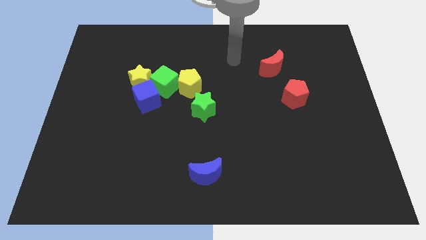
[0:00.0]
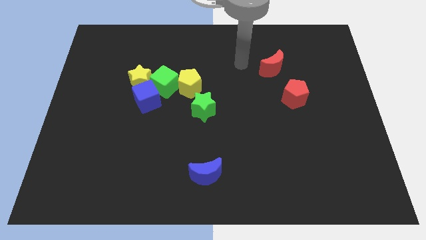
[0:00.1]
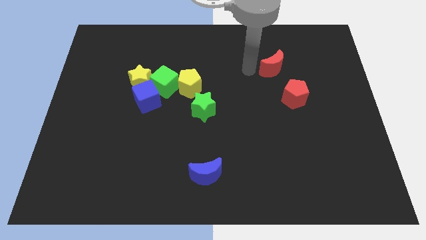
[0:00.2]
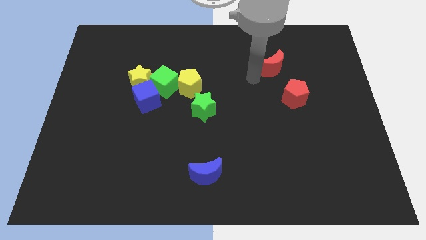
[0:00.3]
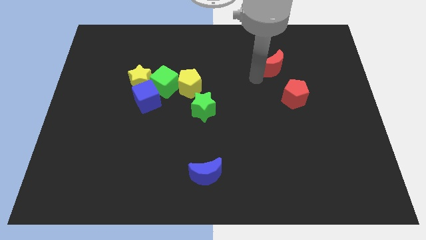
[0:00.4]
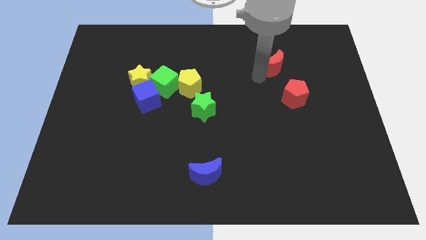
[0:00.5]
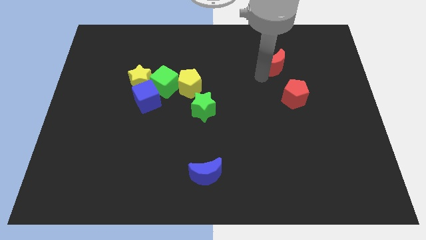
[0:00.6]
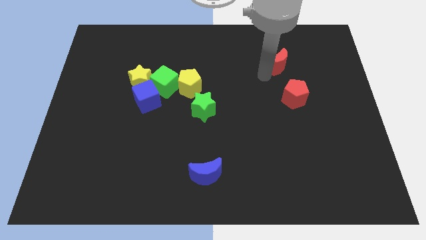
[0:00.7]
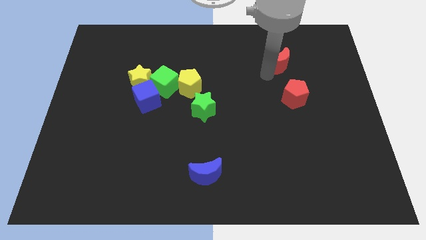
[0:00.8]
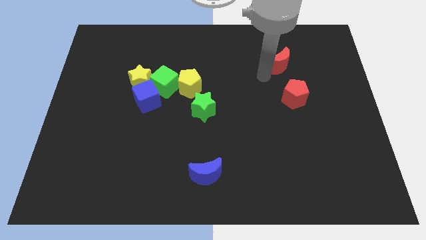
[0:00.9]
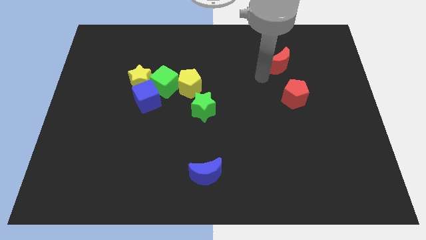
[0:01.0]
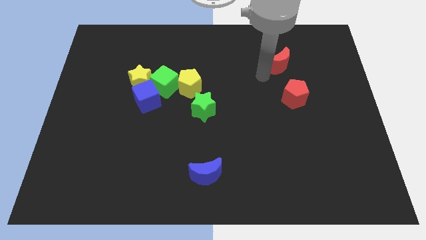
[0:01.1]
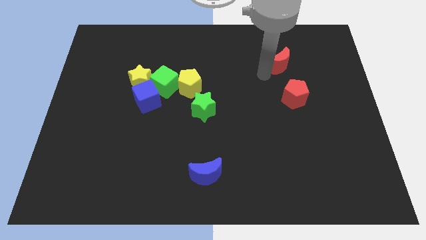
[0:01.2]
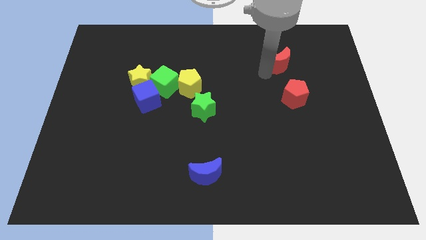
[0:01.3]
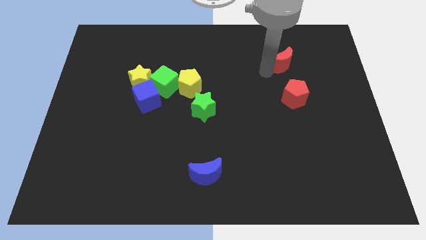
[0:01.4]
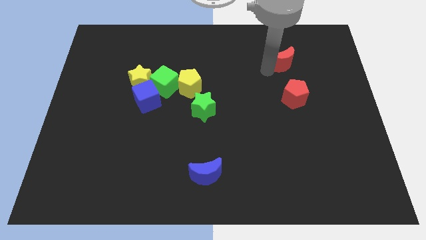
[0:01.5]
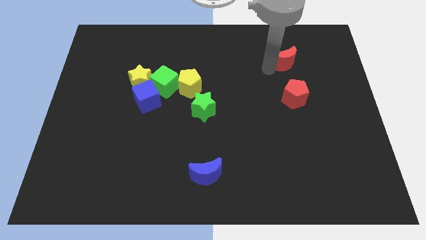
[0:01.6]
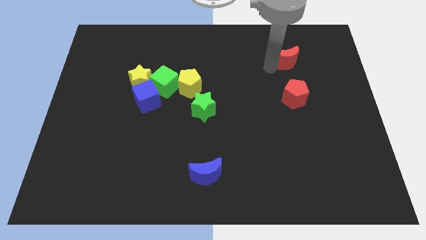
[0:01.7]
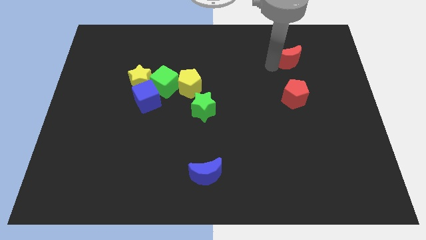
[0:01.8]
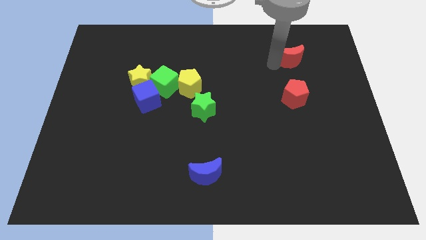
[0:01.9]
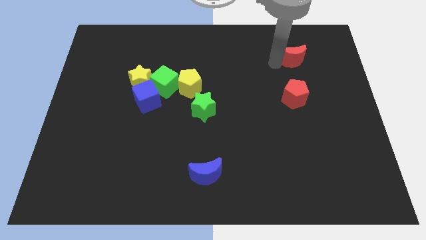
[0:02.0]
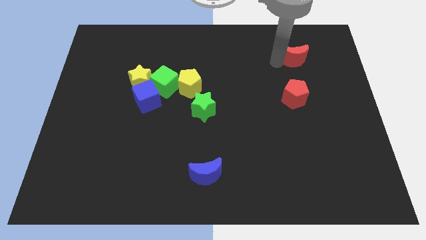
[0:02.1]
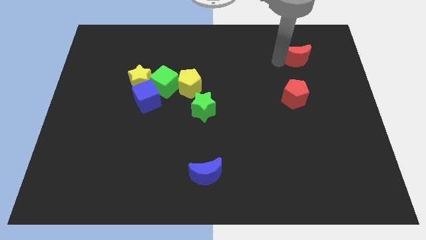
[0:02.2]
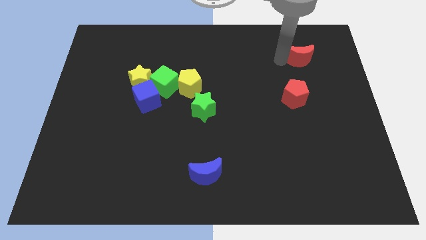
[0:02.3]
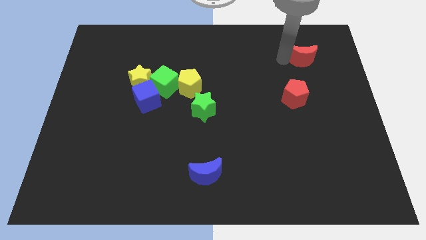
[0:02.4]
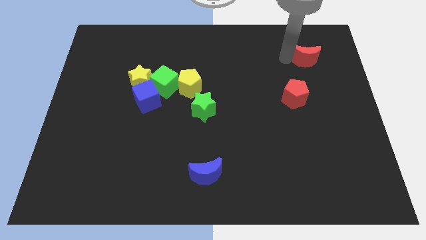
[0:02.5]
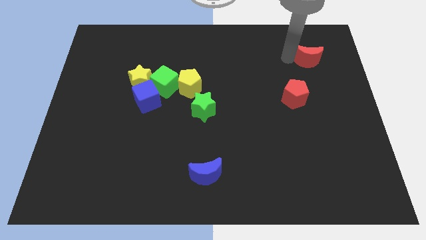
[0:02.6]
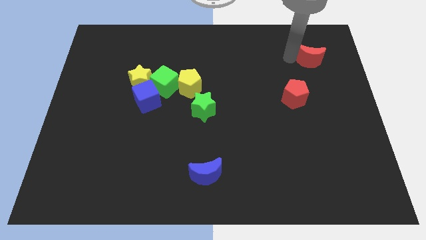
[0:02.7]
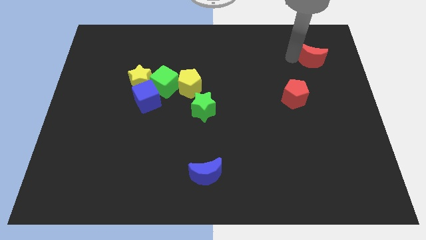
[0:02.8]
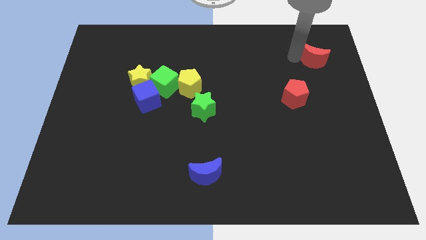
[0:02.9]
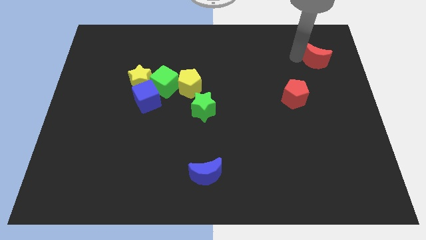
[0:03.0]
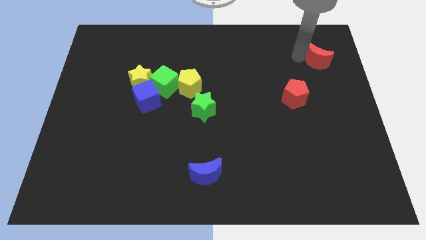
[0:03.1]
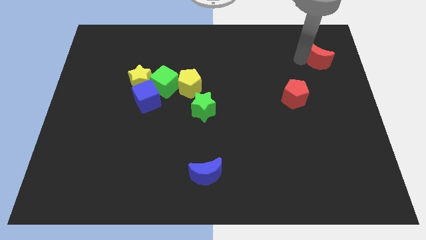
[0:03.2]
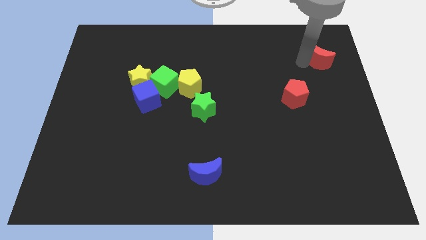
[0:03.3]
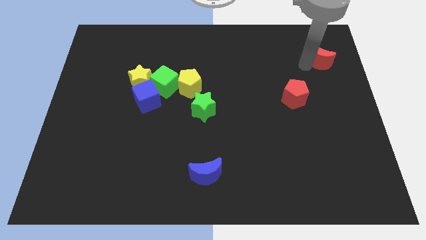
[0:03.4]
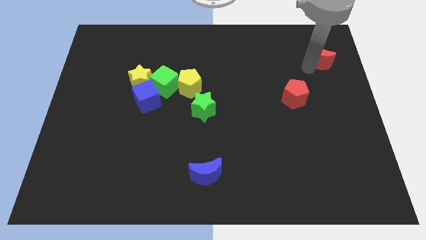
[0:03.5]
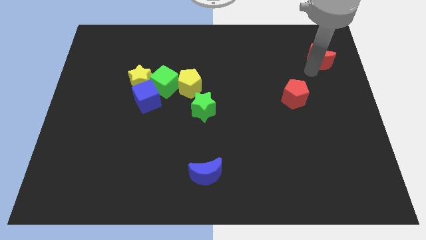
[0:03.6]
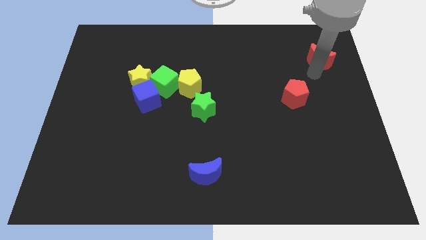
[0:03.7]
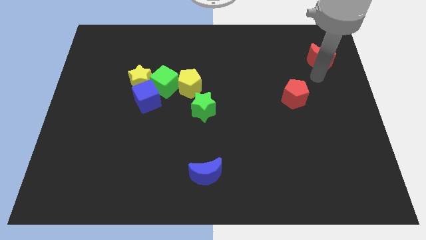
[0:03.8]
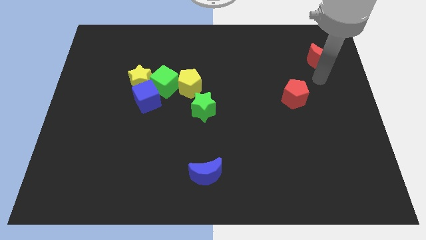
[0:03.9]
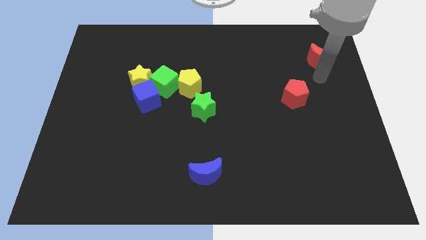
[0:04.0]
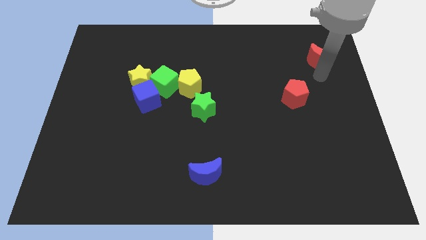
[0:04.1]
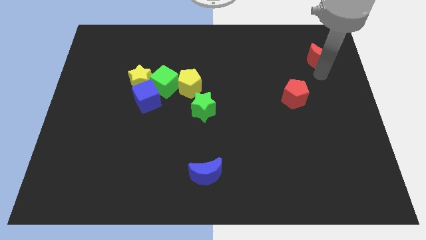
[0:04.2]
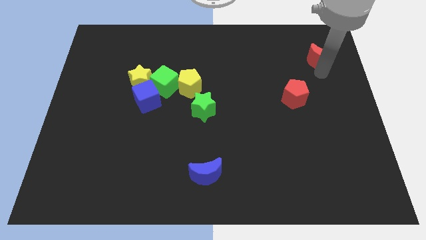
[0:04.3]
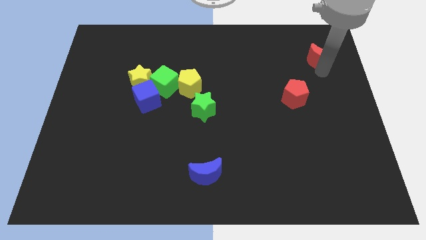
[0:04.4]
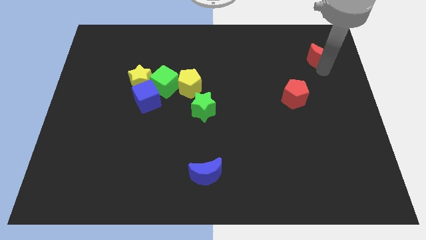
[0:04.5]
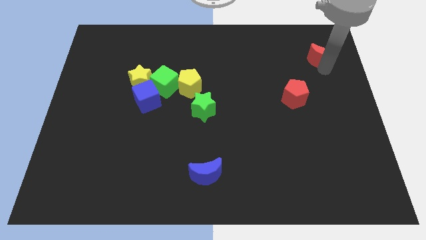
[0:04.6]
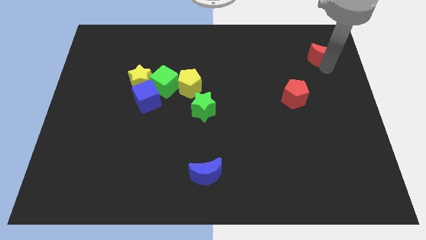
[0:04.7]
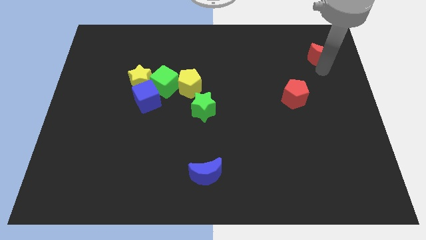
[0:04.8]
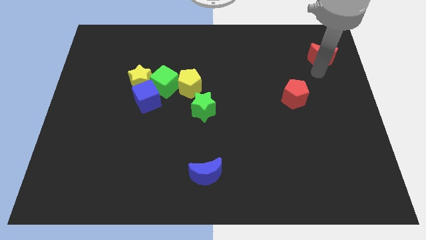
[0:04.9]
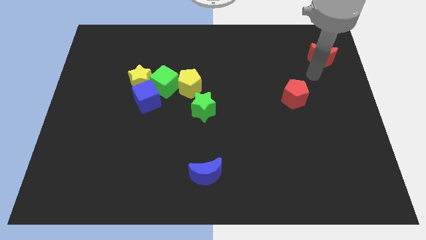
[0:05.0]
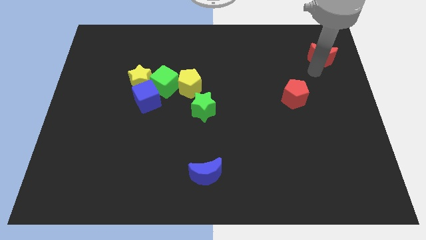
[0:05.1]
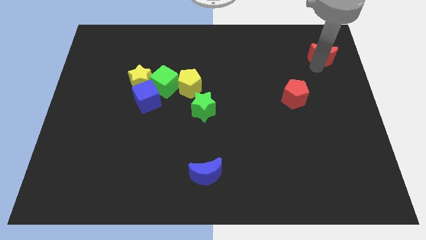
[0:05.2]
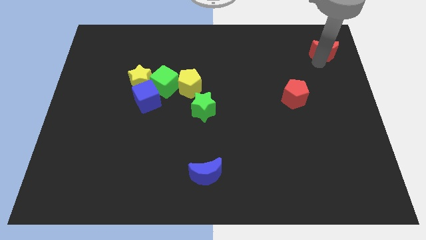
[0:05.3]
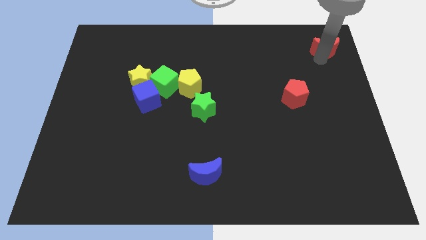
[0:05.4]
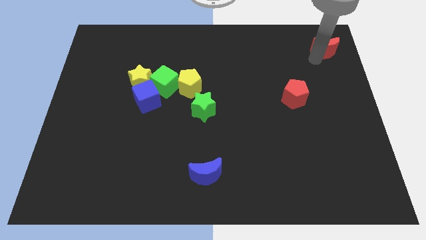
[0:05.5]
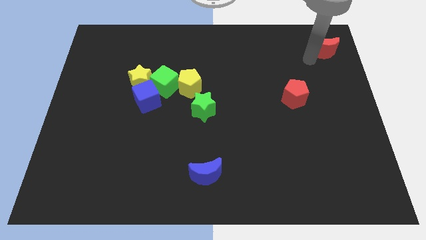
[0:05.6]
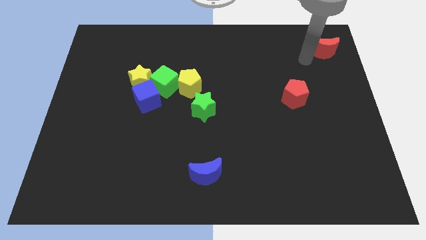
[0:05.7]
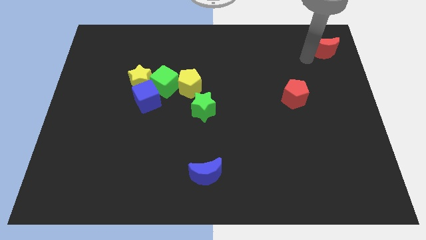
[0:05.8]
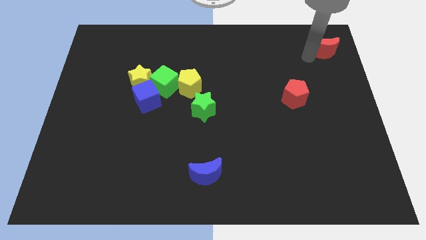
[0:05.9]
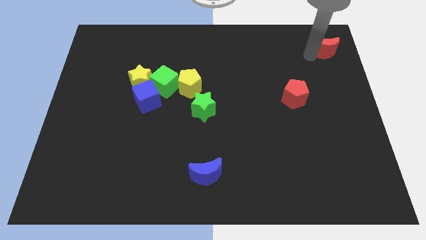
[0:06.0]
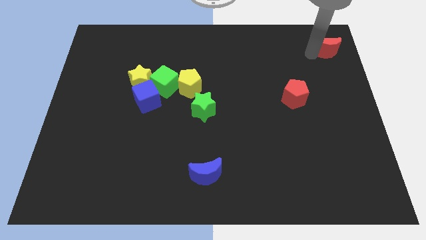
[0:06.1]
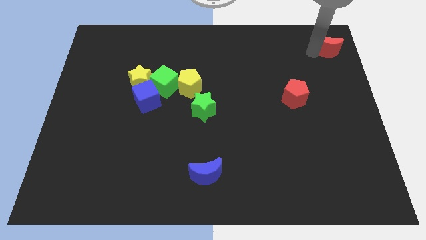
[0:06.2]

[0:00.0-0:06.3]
slide the red moon to the top right of the board

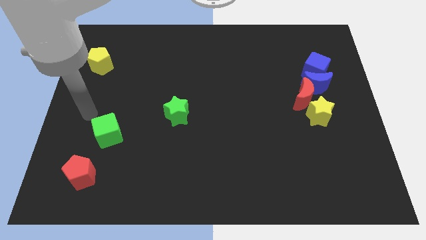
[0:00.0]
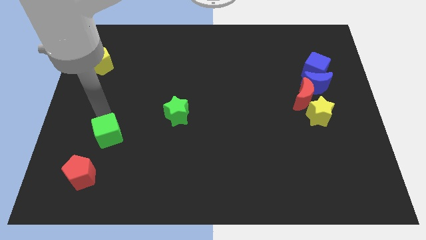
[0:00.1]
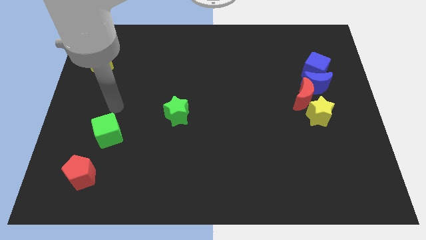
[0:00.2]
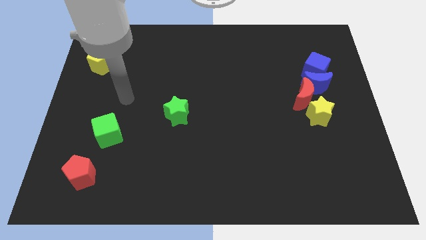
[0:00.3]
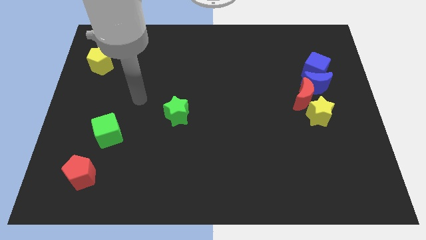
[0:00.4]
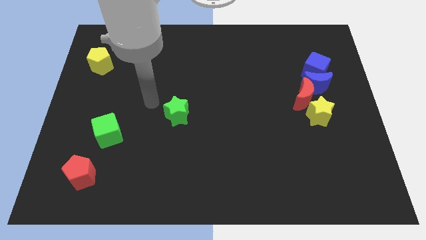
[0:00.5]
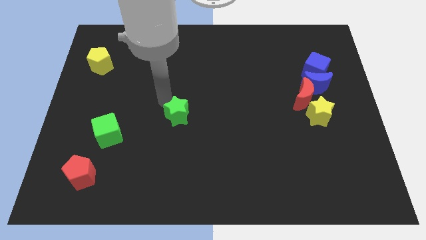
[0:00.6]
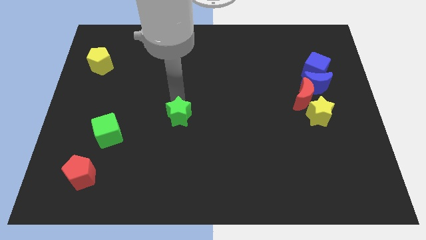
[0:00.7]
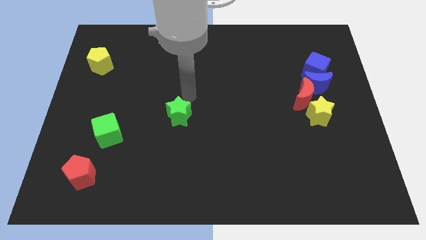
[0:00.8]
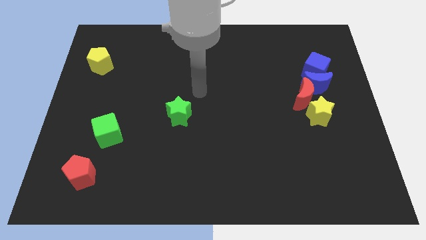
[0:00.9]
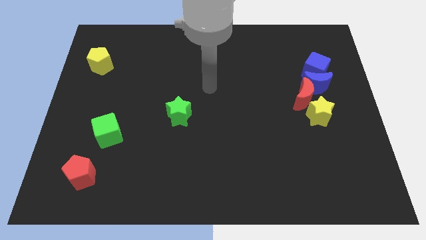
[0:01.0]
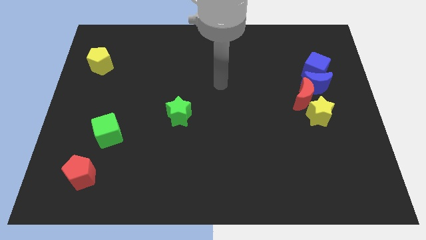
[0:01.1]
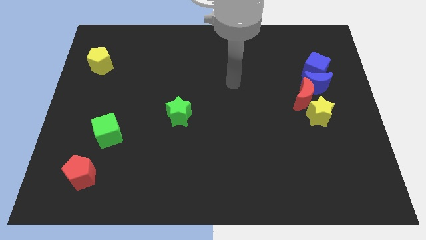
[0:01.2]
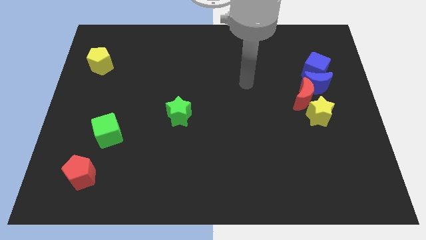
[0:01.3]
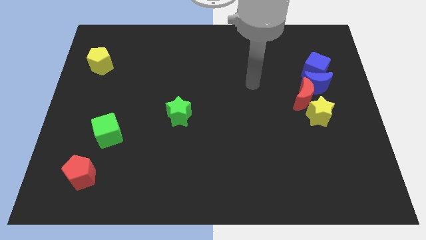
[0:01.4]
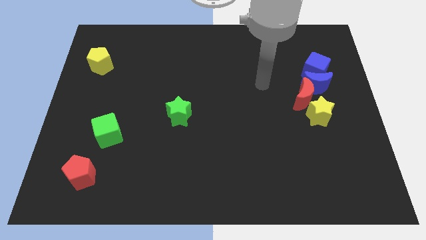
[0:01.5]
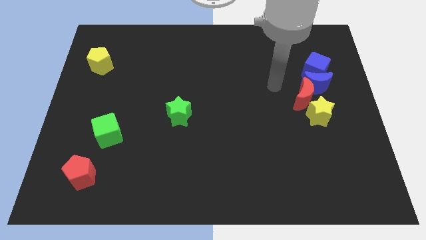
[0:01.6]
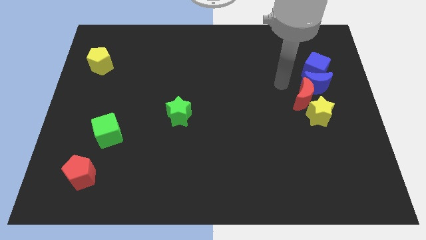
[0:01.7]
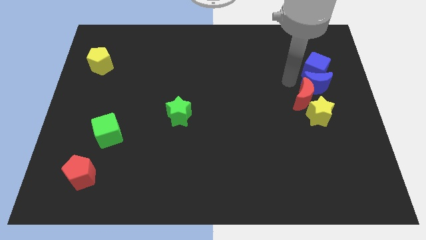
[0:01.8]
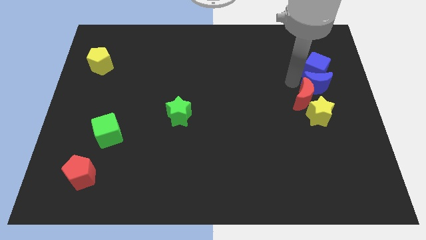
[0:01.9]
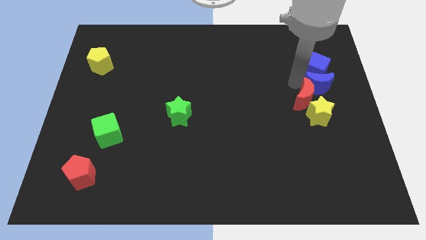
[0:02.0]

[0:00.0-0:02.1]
put the blue moon to the right side of the board
